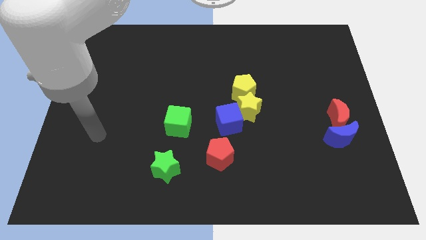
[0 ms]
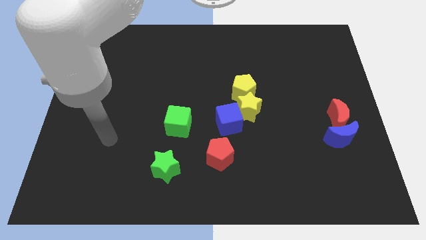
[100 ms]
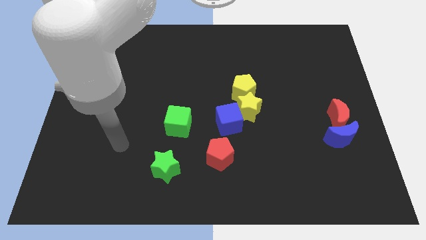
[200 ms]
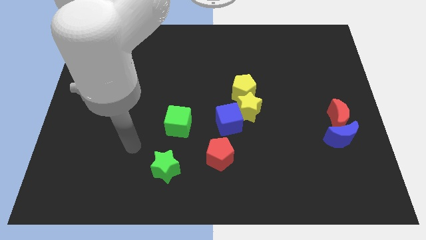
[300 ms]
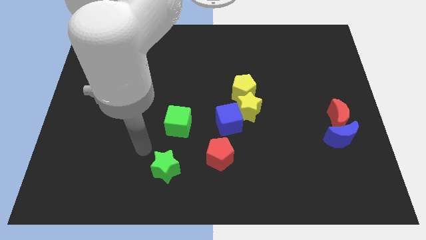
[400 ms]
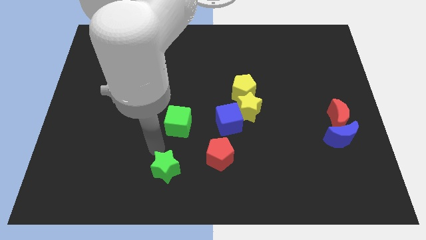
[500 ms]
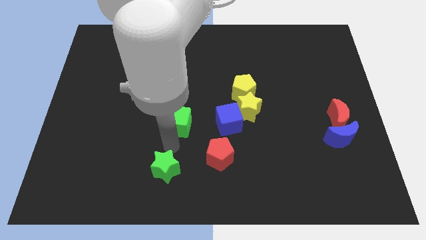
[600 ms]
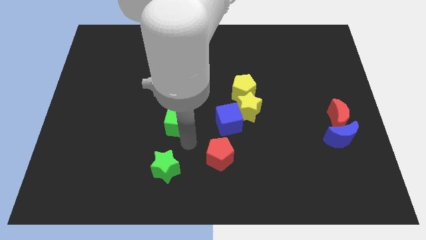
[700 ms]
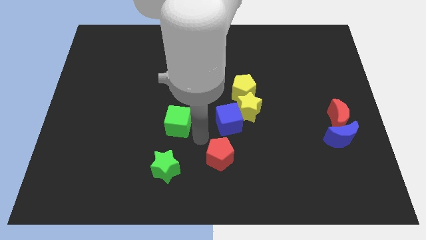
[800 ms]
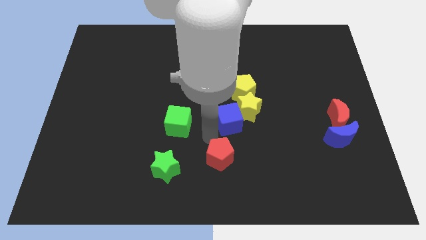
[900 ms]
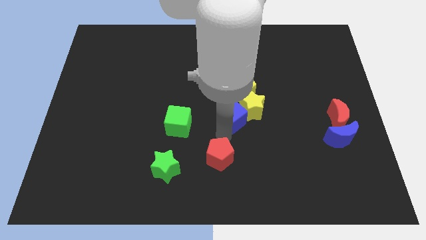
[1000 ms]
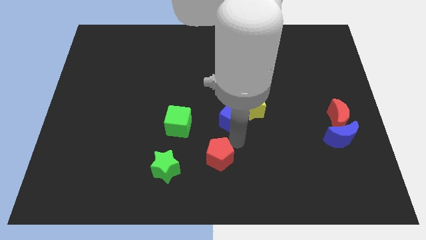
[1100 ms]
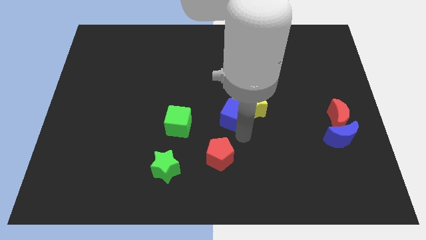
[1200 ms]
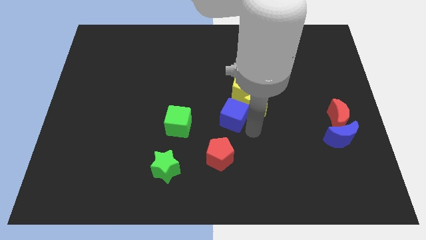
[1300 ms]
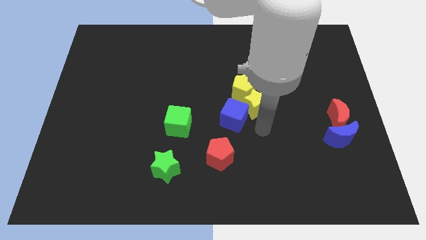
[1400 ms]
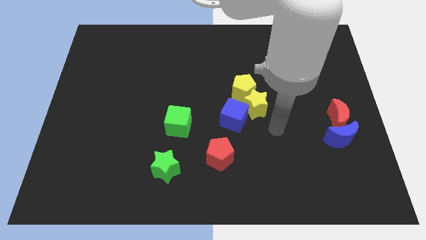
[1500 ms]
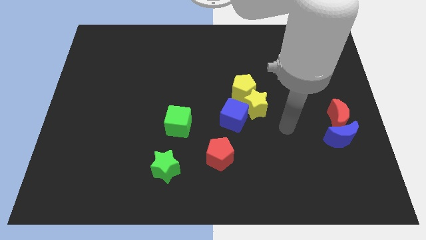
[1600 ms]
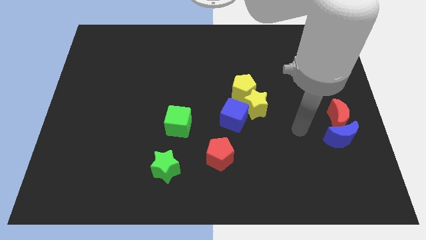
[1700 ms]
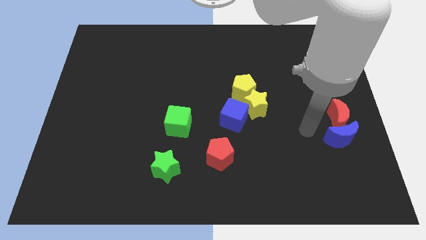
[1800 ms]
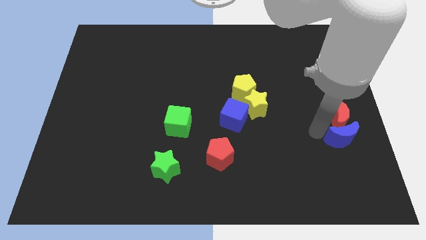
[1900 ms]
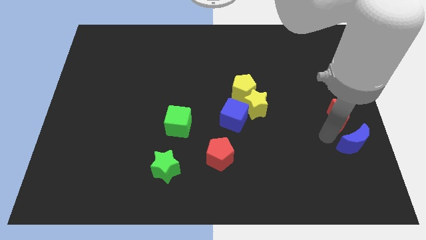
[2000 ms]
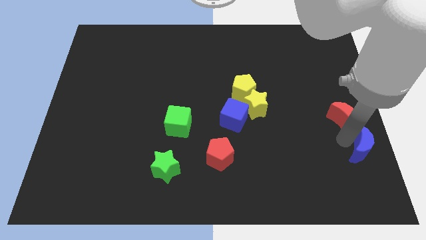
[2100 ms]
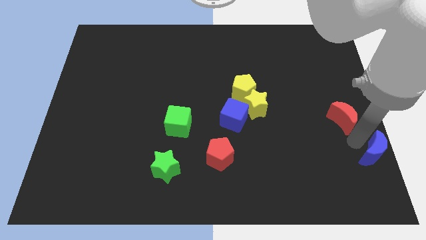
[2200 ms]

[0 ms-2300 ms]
pull the red moon apart from the blue moon

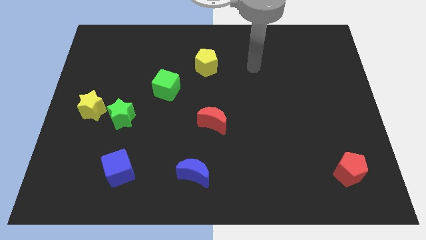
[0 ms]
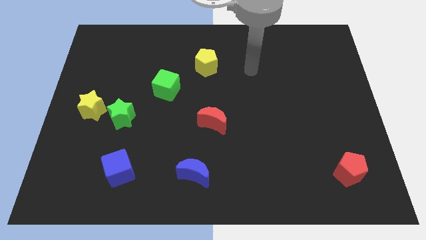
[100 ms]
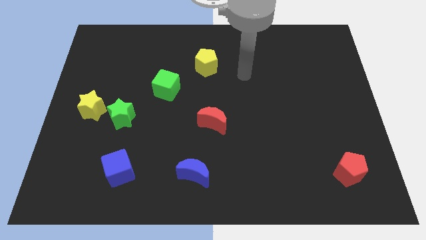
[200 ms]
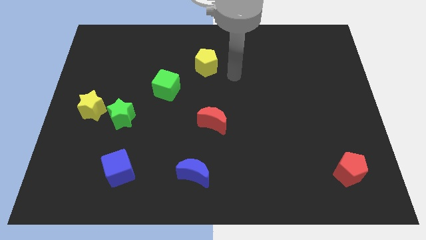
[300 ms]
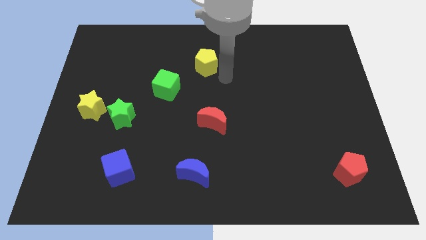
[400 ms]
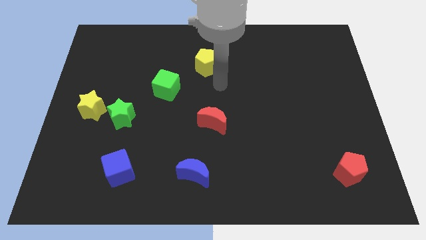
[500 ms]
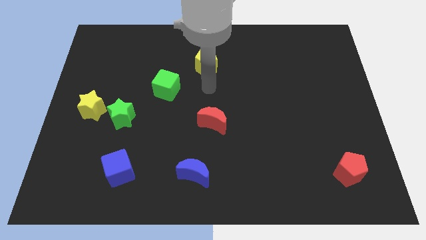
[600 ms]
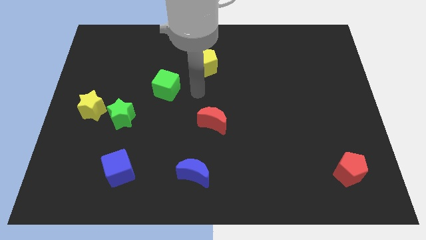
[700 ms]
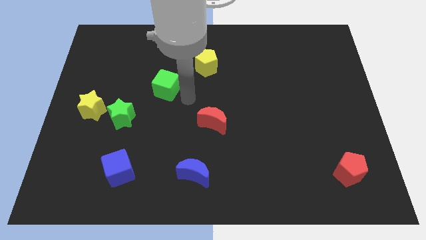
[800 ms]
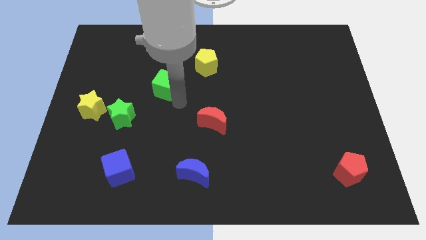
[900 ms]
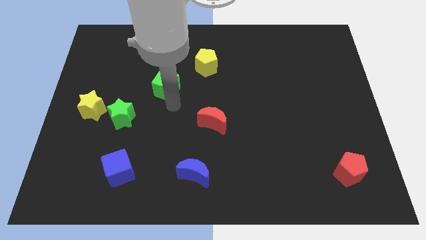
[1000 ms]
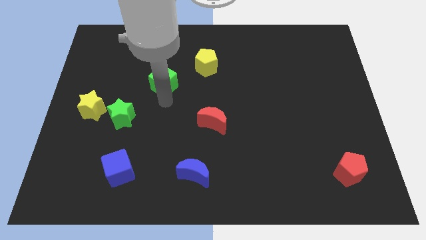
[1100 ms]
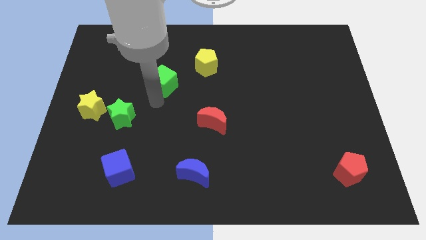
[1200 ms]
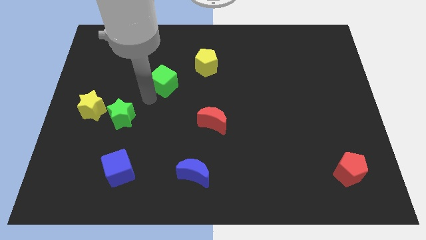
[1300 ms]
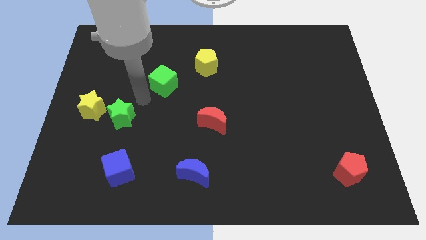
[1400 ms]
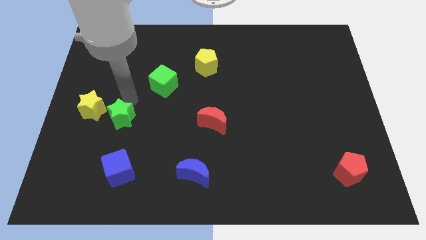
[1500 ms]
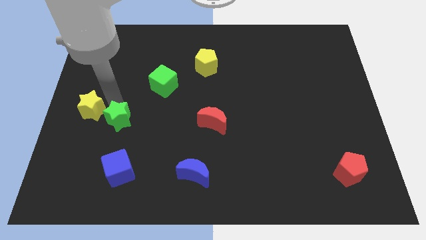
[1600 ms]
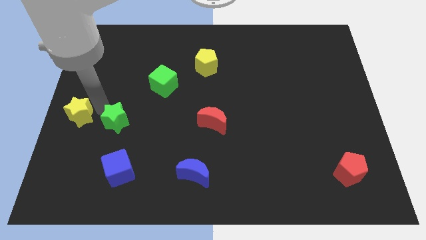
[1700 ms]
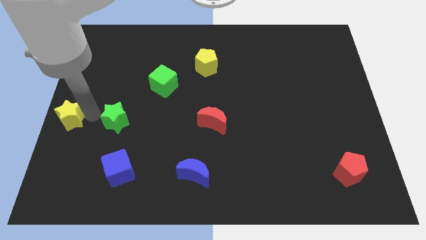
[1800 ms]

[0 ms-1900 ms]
move the green star away from the yellow star

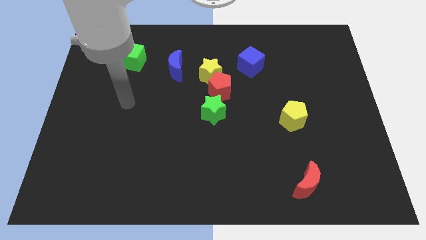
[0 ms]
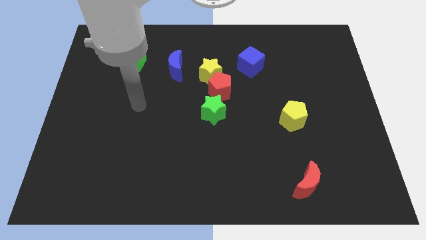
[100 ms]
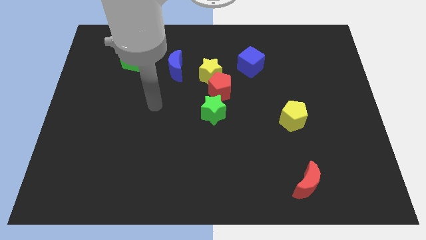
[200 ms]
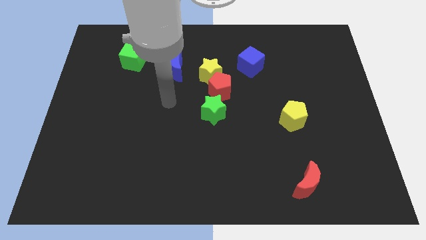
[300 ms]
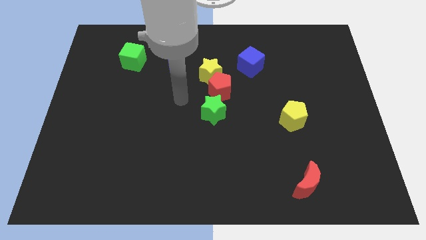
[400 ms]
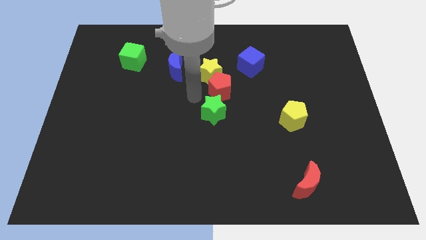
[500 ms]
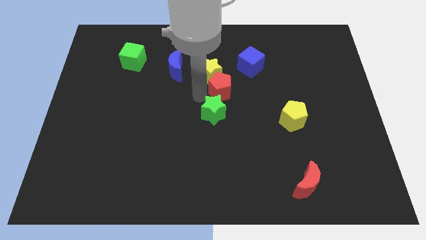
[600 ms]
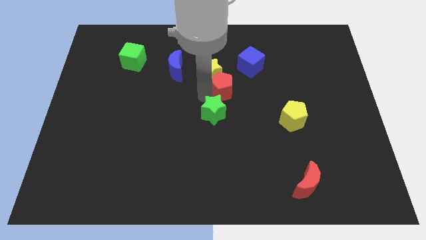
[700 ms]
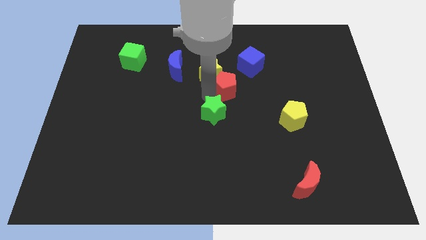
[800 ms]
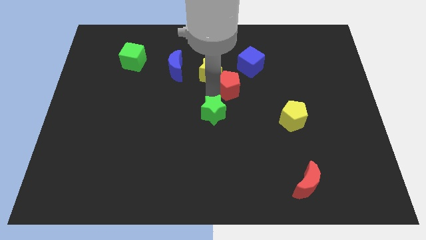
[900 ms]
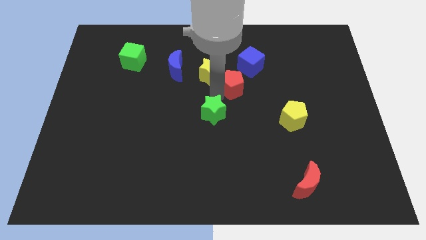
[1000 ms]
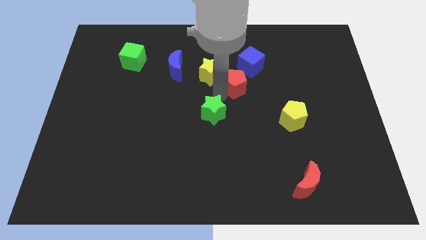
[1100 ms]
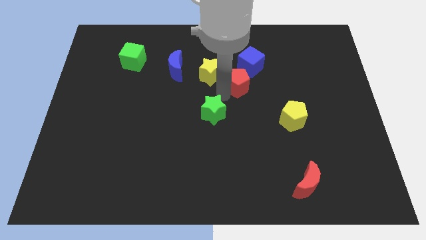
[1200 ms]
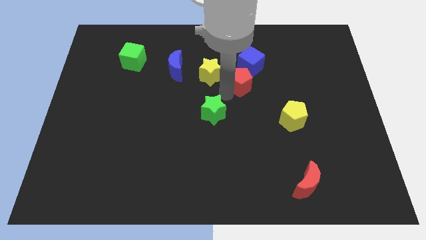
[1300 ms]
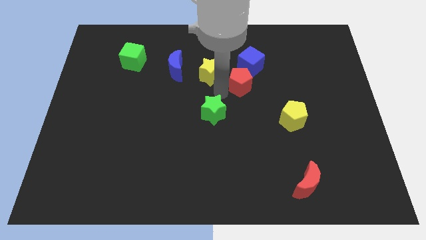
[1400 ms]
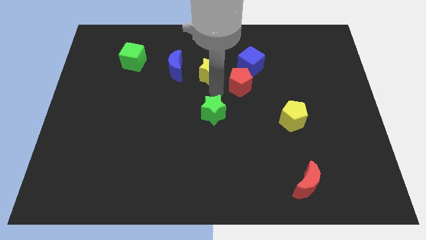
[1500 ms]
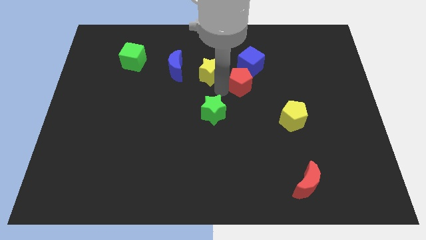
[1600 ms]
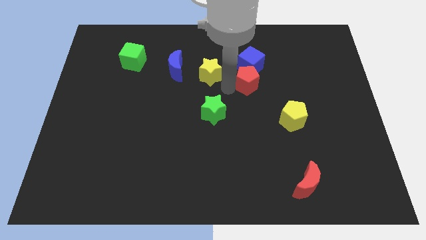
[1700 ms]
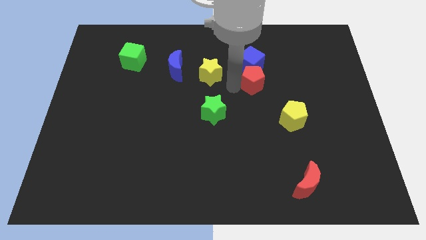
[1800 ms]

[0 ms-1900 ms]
move the red pentagon away from the yellow star and green star

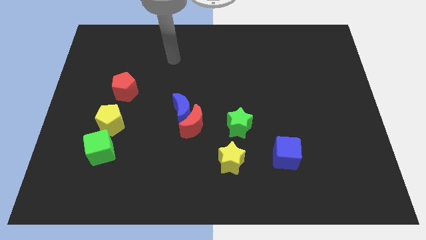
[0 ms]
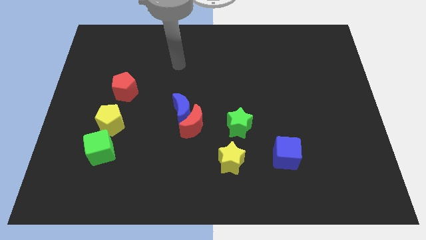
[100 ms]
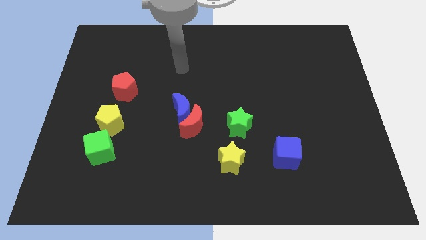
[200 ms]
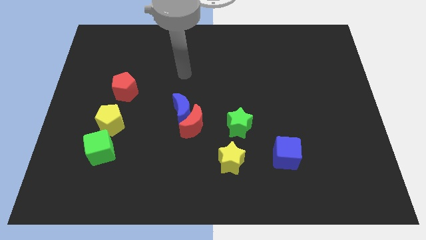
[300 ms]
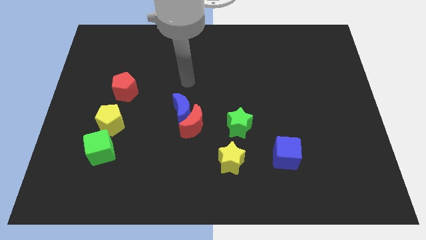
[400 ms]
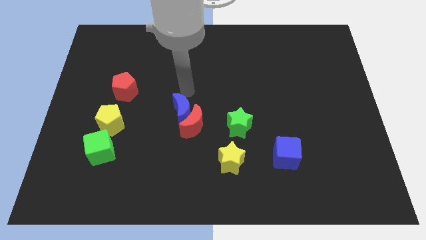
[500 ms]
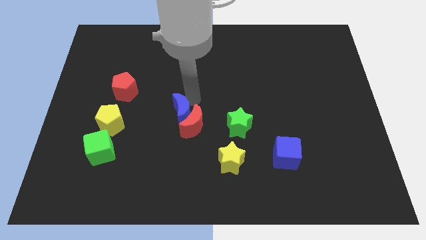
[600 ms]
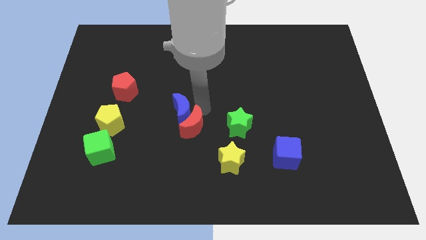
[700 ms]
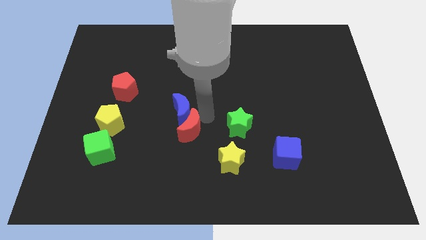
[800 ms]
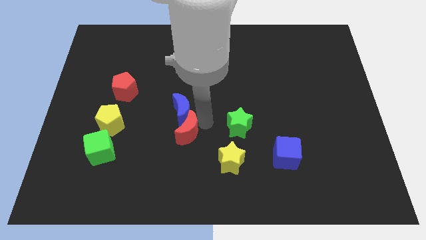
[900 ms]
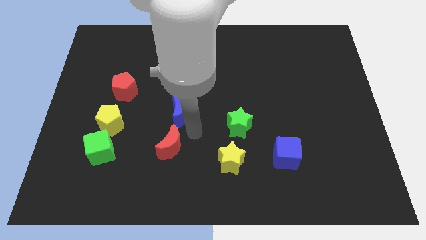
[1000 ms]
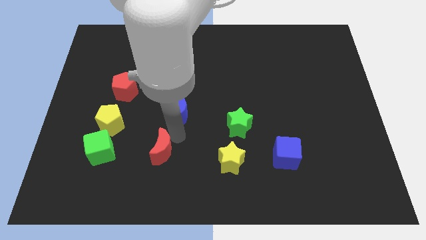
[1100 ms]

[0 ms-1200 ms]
pull the blue moon apart from the red moon

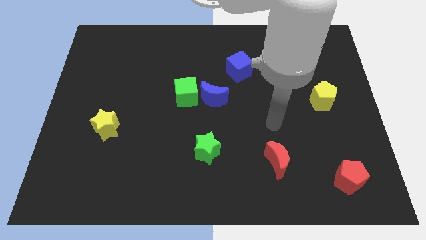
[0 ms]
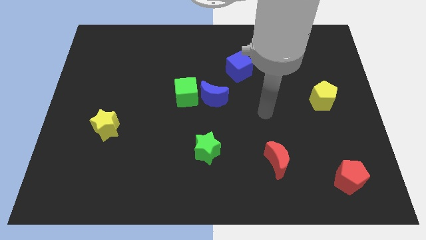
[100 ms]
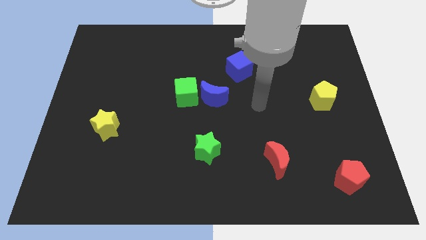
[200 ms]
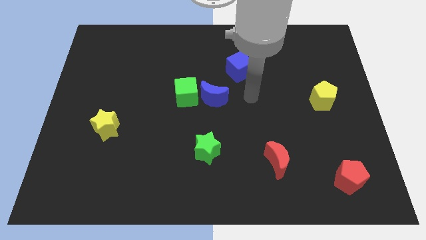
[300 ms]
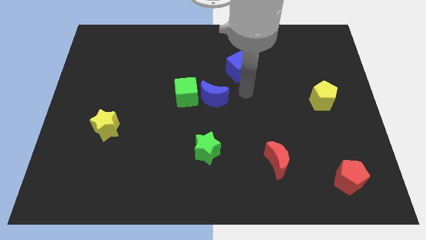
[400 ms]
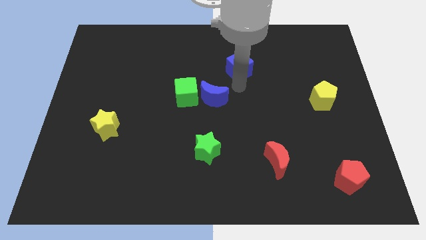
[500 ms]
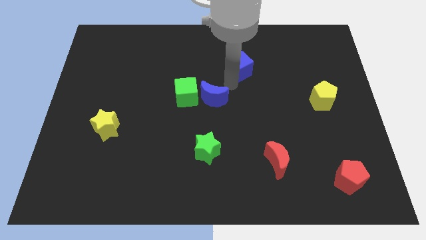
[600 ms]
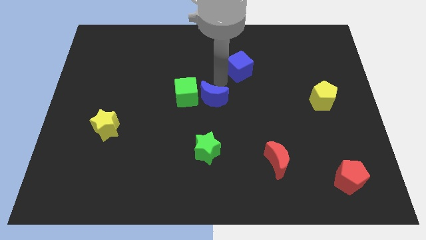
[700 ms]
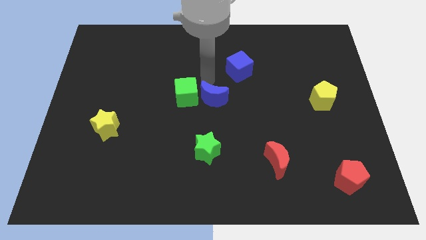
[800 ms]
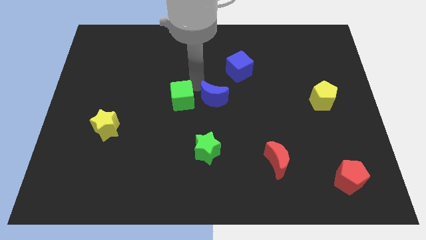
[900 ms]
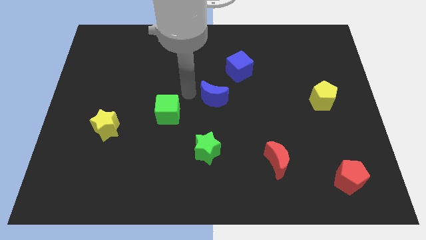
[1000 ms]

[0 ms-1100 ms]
move the blue moon away from the green cube

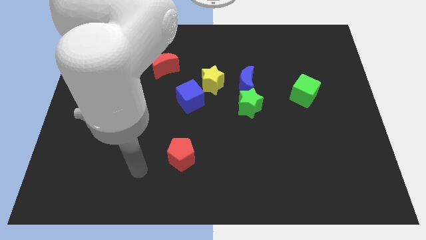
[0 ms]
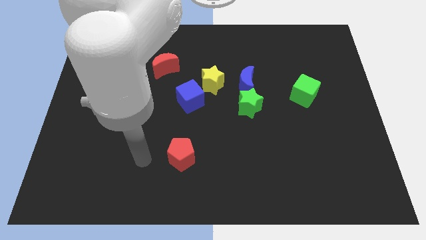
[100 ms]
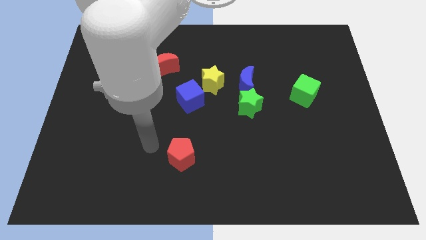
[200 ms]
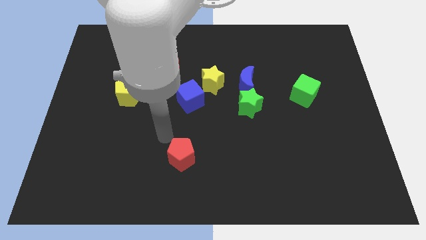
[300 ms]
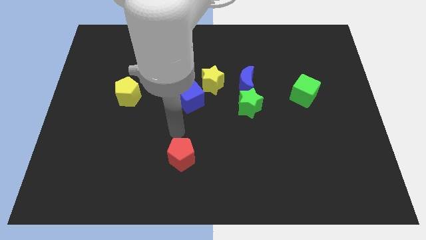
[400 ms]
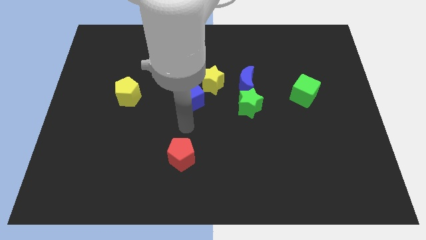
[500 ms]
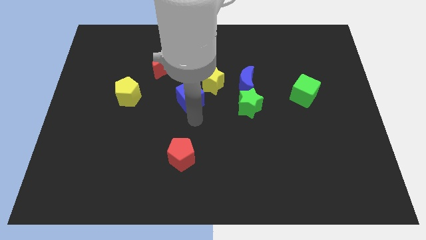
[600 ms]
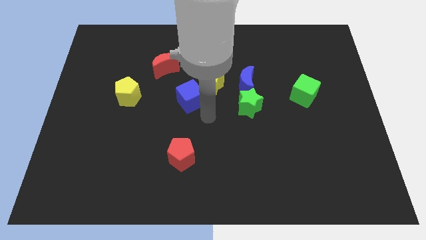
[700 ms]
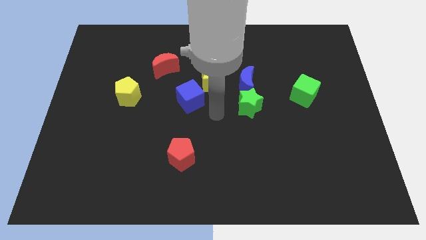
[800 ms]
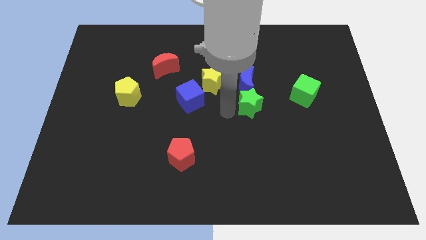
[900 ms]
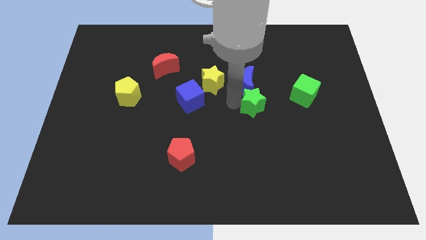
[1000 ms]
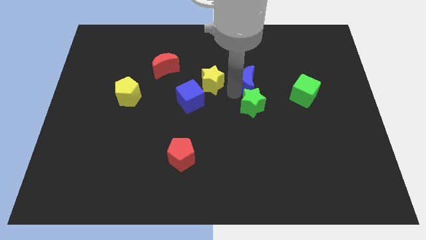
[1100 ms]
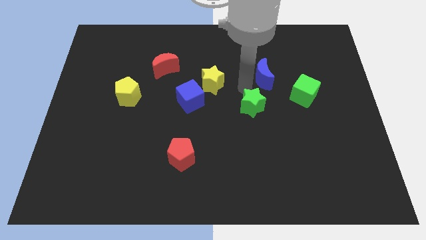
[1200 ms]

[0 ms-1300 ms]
separate the green star from the blue moon
